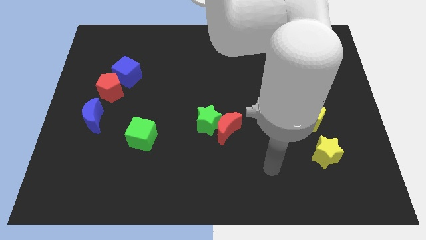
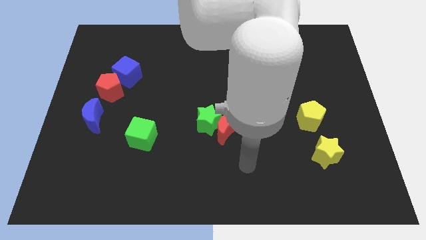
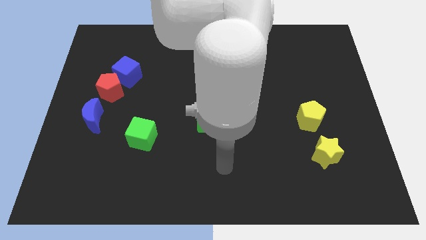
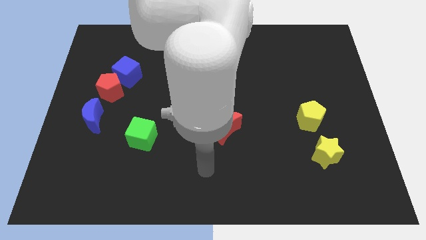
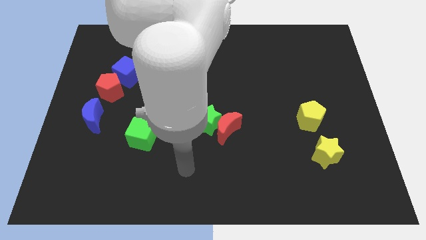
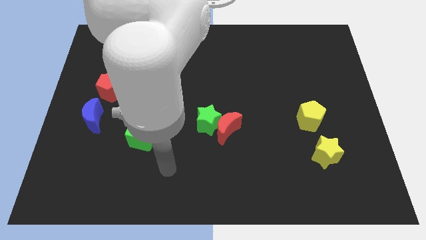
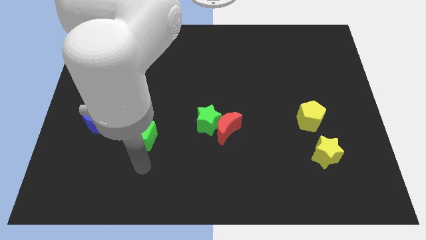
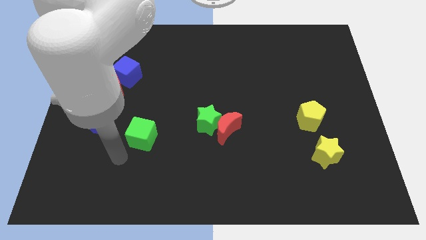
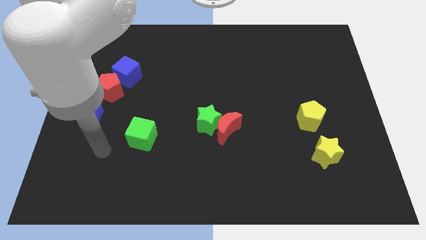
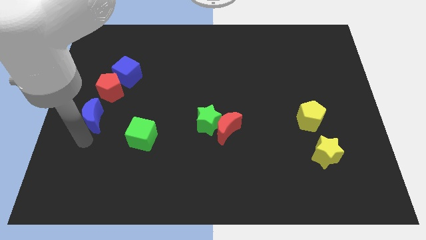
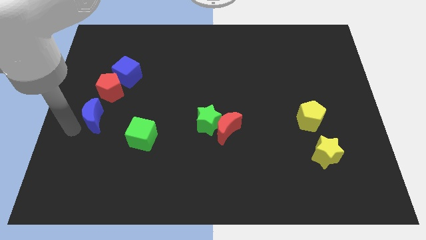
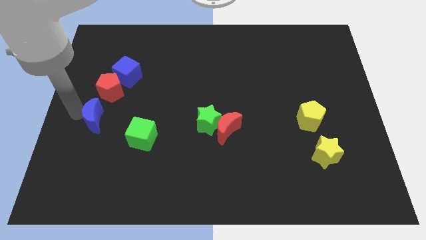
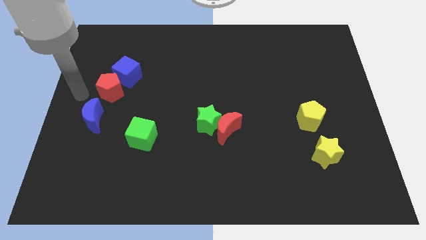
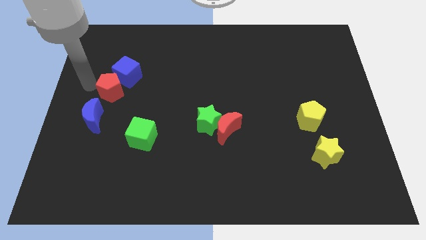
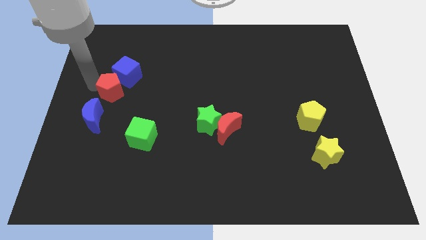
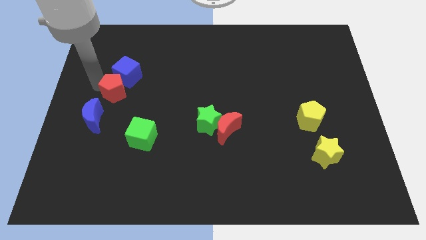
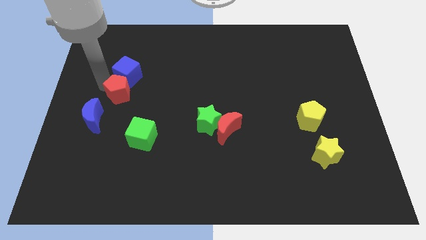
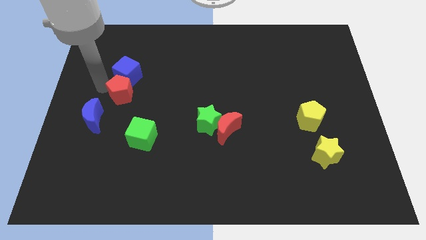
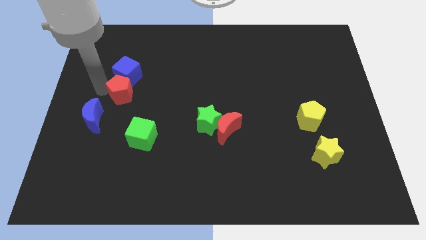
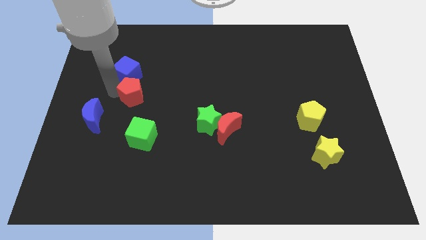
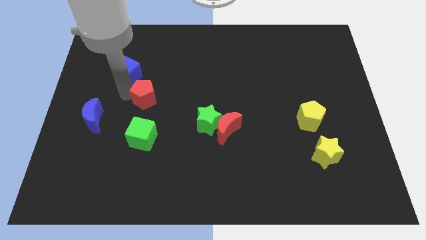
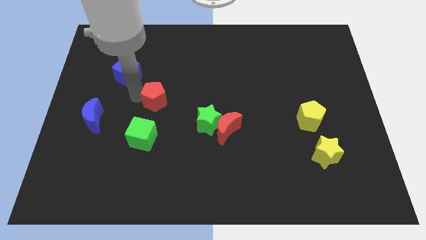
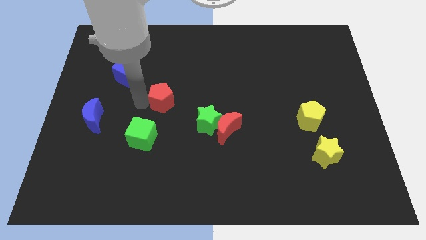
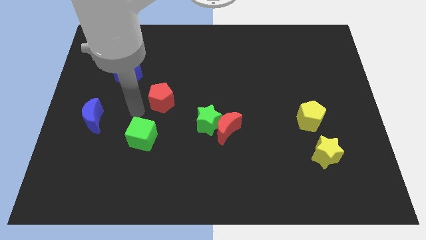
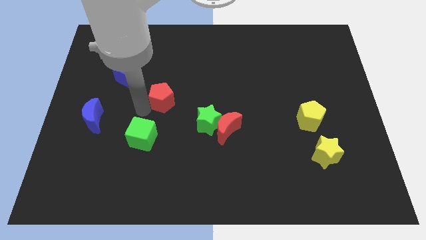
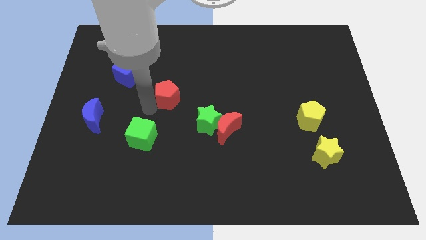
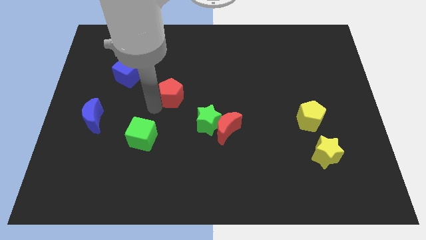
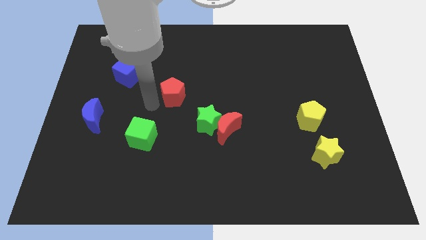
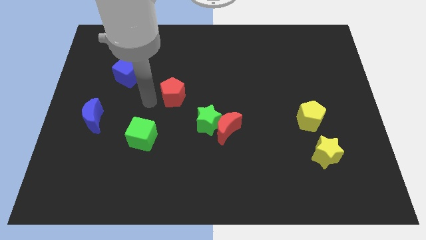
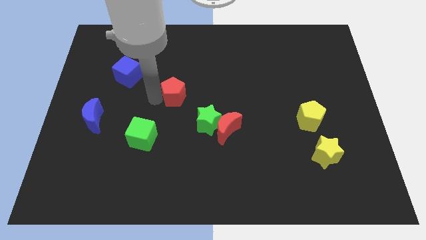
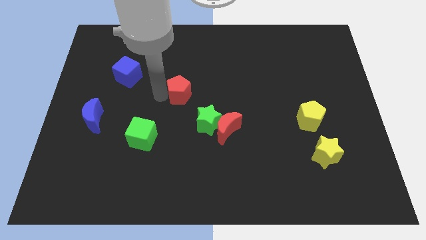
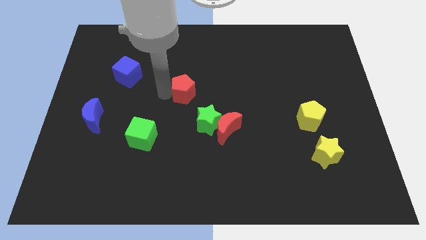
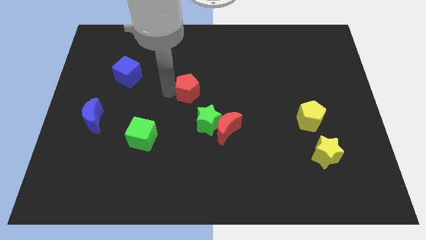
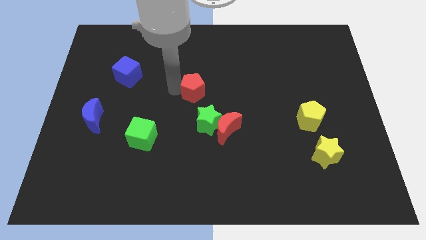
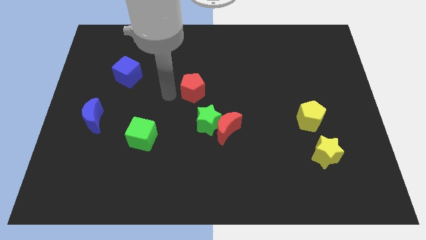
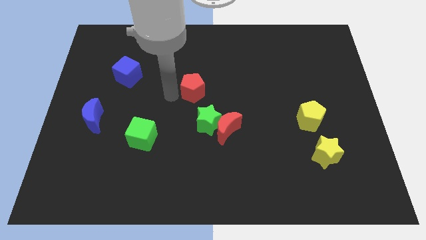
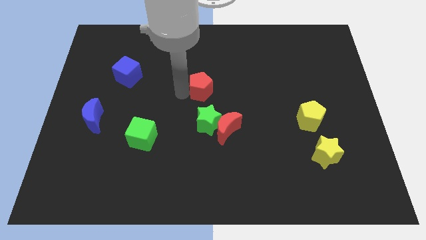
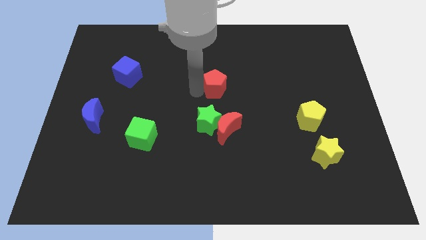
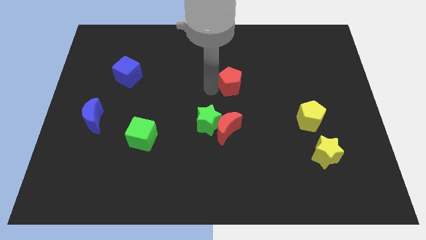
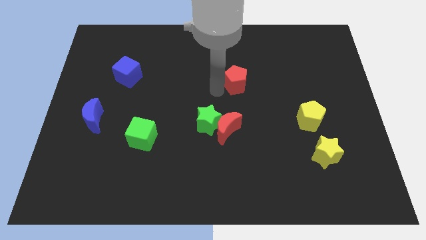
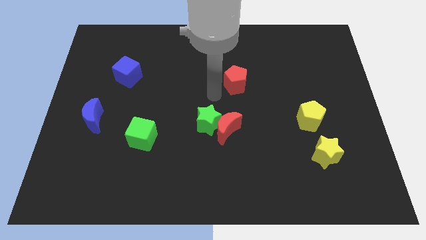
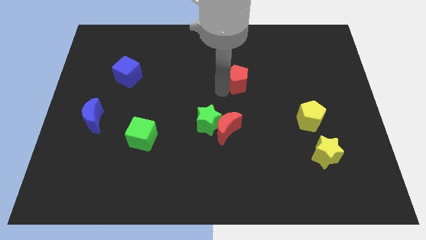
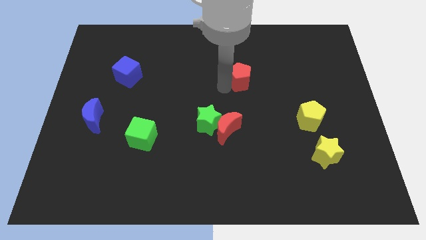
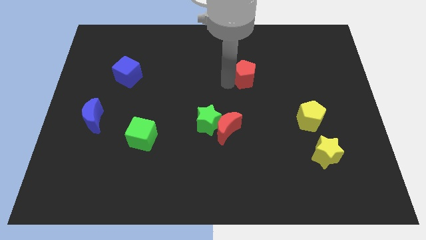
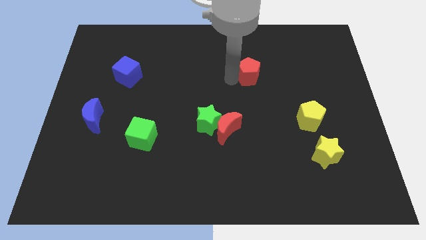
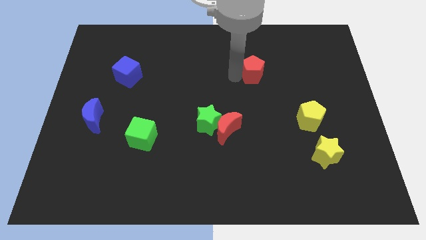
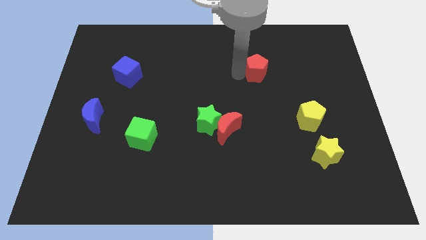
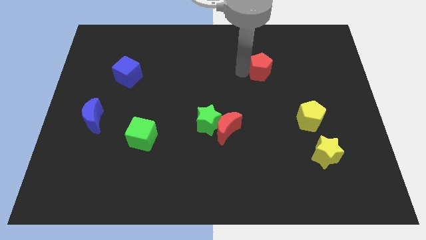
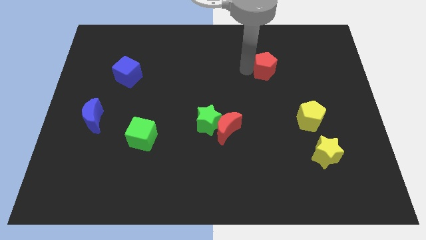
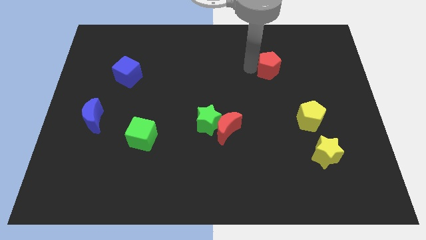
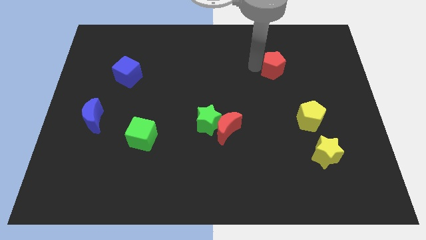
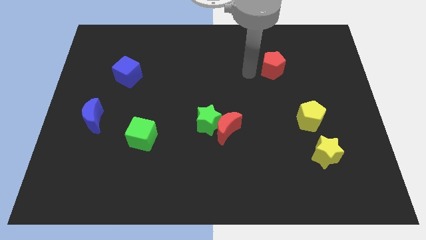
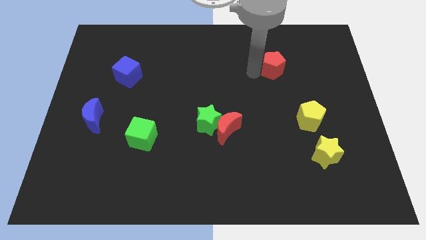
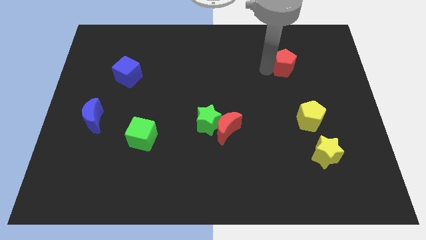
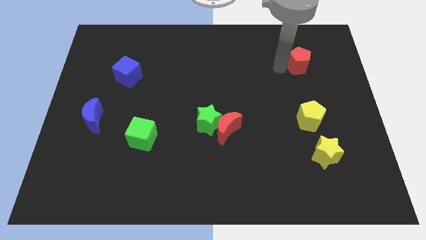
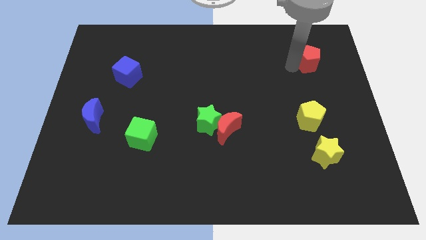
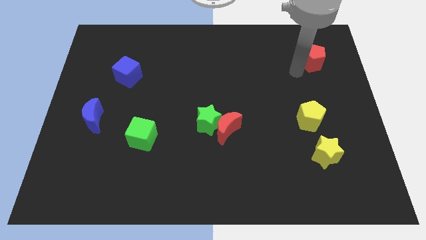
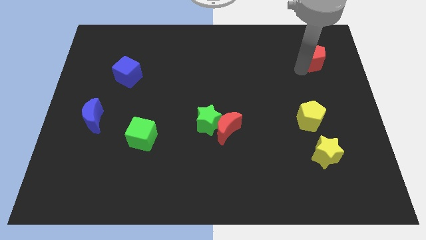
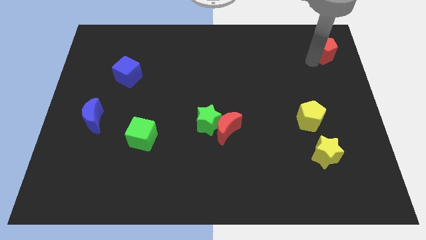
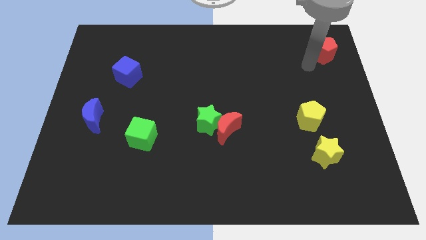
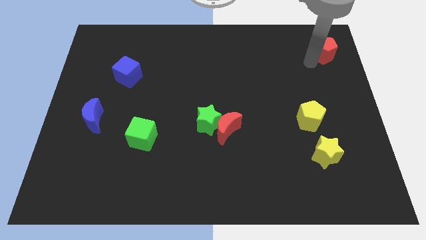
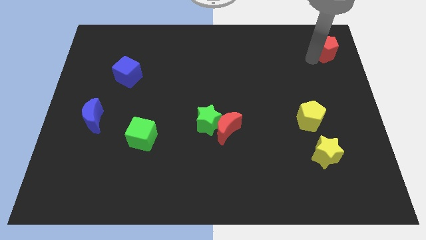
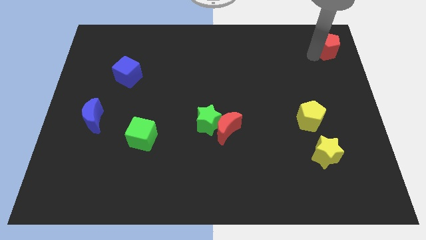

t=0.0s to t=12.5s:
push the red pentagon to the upper right corner
